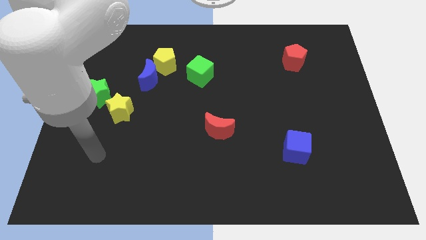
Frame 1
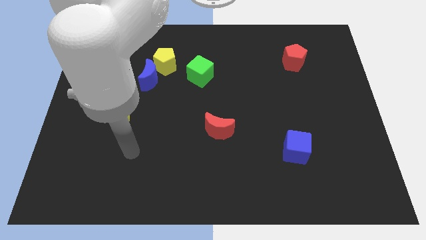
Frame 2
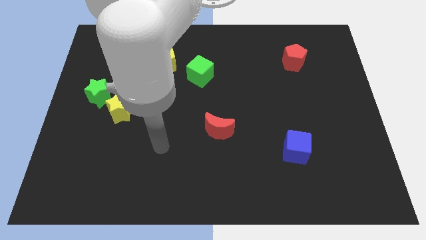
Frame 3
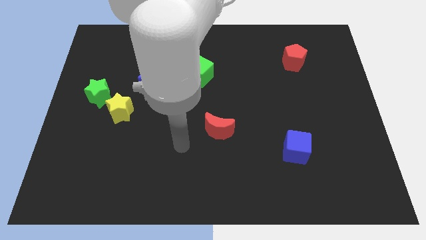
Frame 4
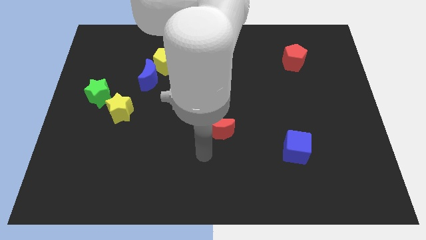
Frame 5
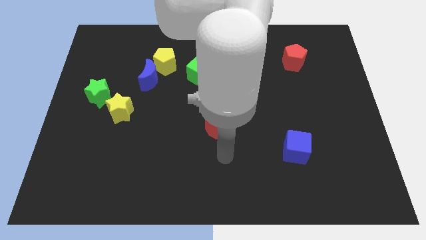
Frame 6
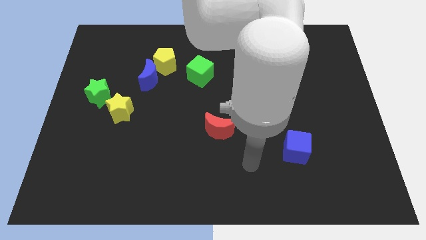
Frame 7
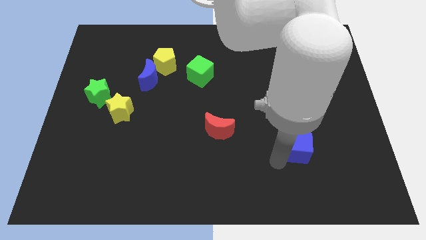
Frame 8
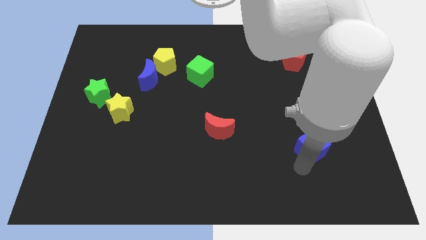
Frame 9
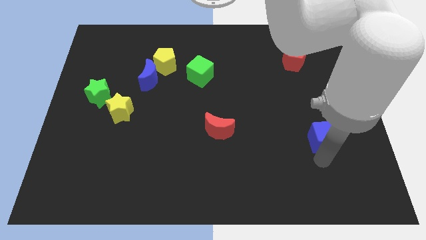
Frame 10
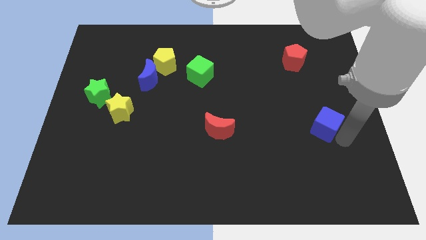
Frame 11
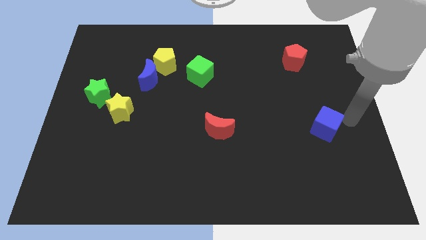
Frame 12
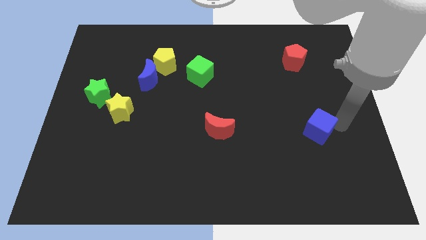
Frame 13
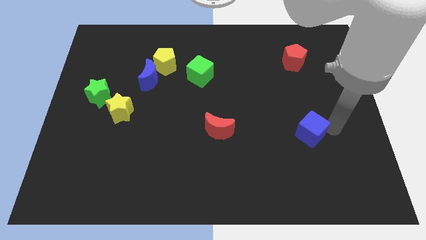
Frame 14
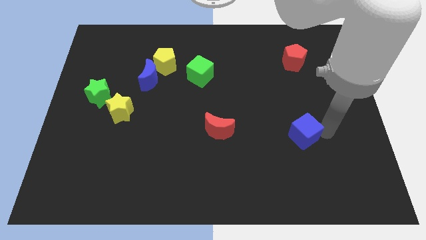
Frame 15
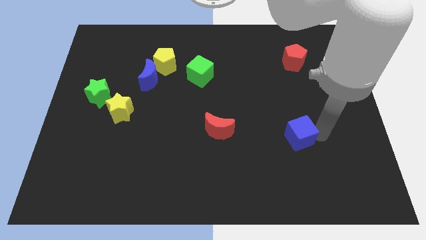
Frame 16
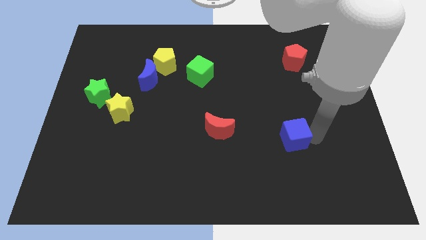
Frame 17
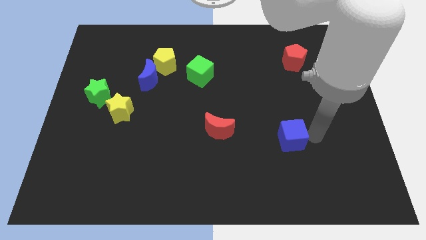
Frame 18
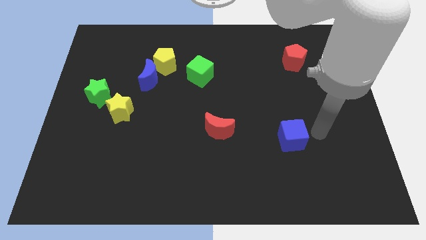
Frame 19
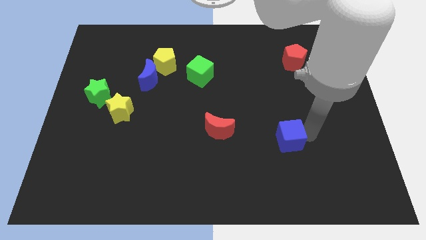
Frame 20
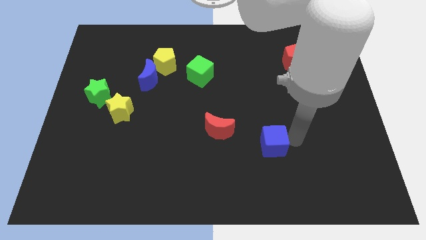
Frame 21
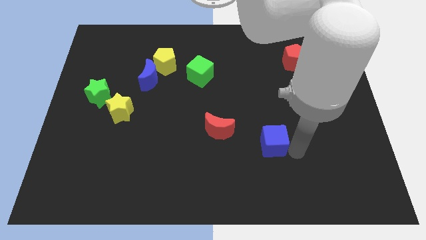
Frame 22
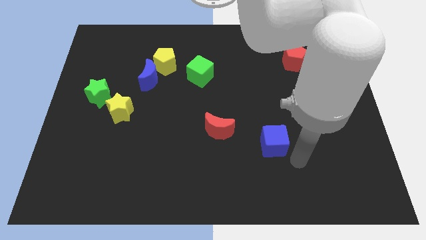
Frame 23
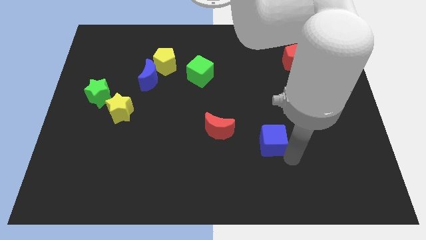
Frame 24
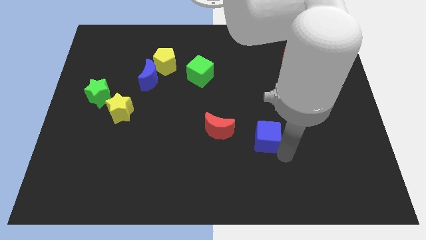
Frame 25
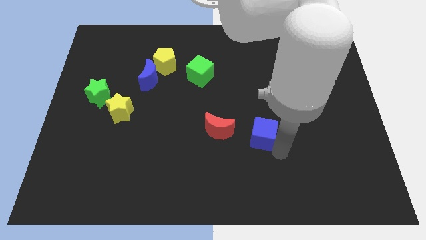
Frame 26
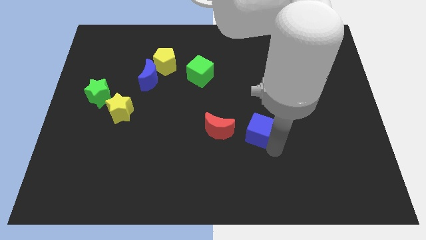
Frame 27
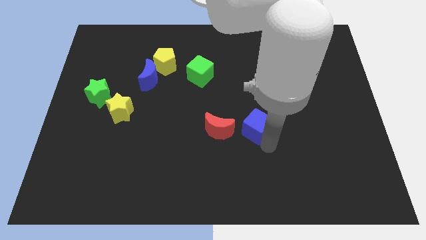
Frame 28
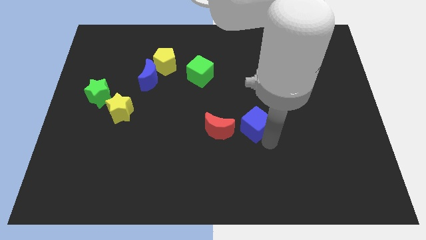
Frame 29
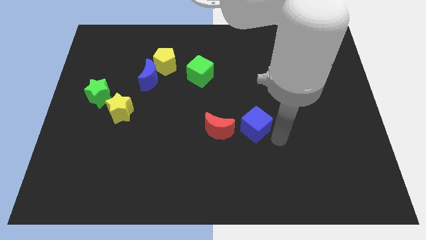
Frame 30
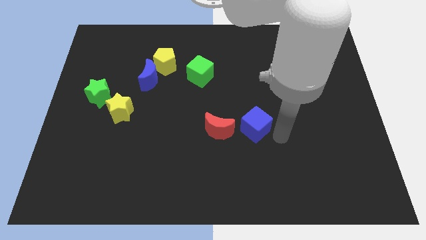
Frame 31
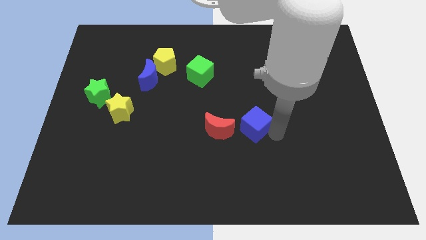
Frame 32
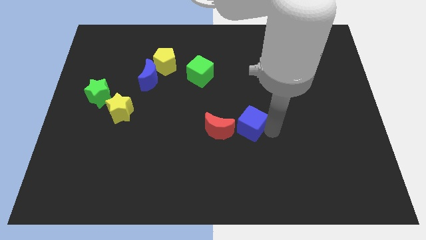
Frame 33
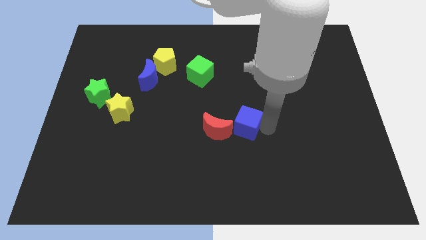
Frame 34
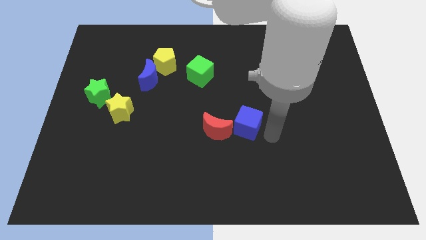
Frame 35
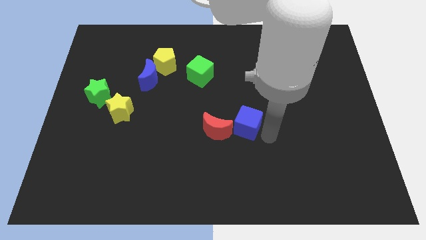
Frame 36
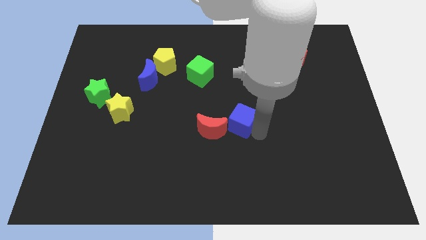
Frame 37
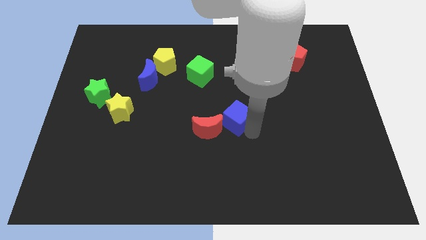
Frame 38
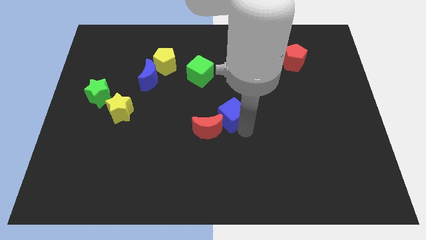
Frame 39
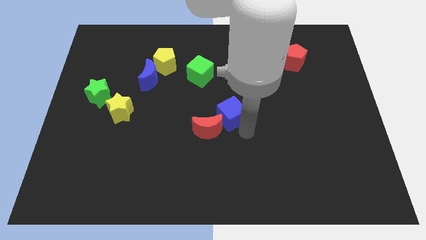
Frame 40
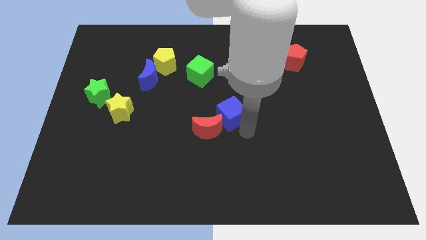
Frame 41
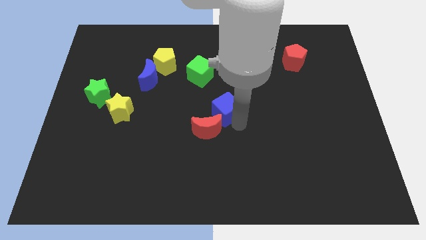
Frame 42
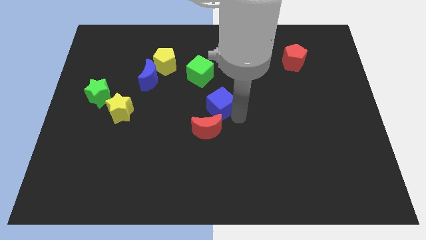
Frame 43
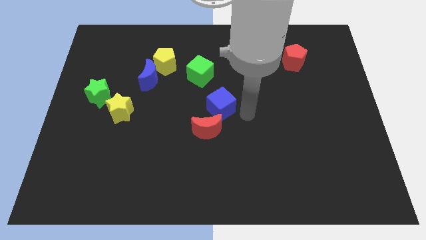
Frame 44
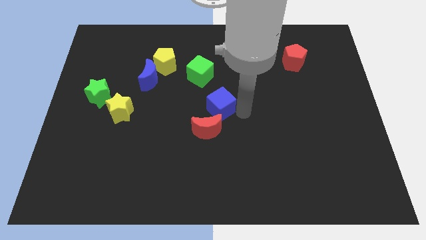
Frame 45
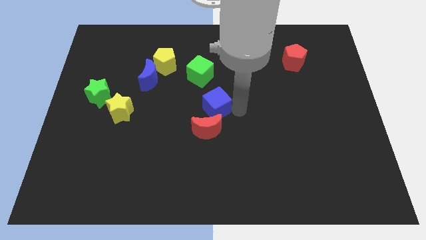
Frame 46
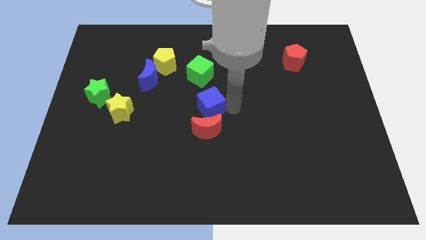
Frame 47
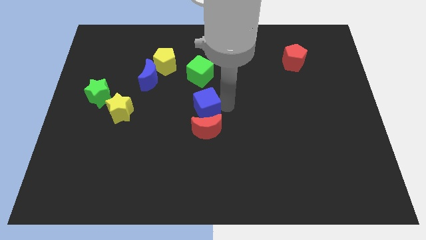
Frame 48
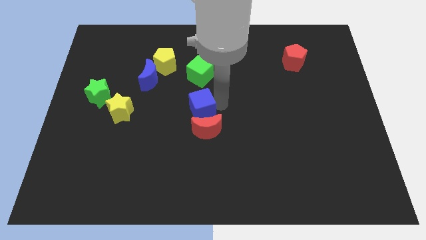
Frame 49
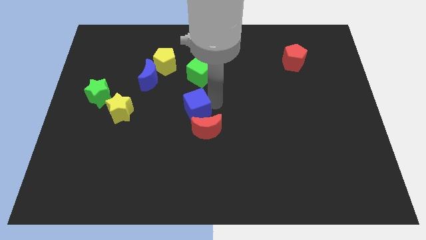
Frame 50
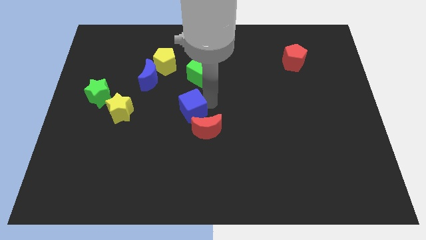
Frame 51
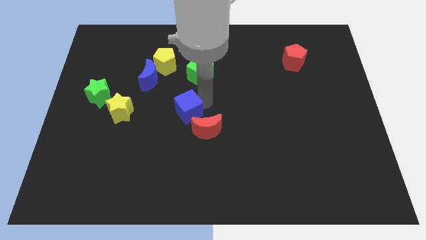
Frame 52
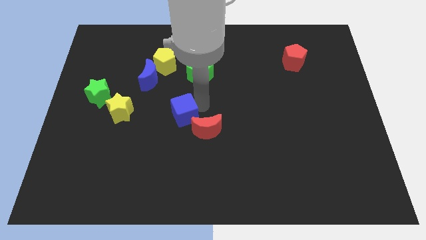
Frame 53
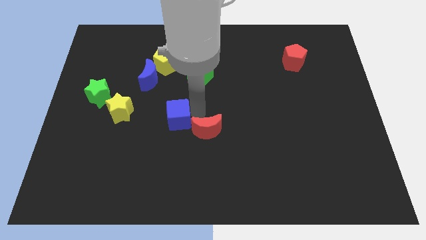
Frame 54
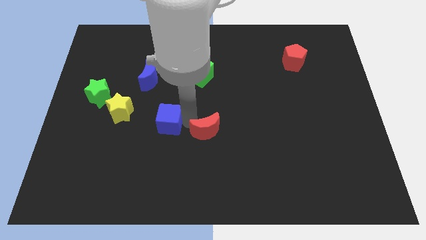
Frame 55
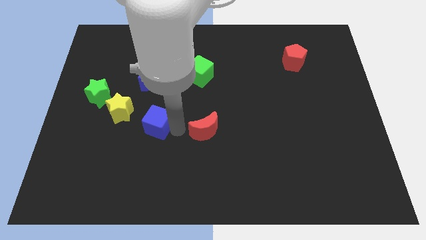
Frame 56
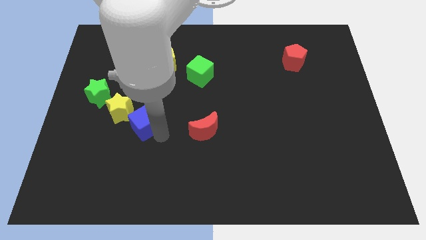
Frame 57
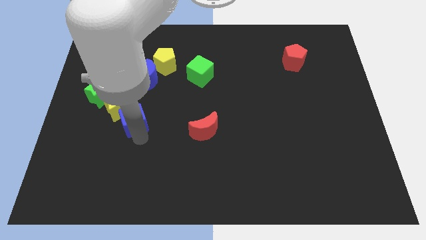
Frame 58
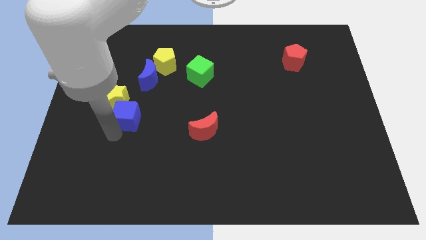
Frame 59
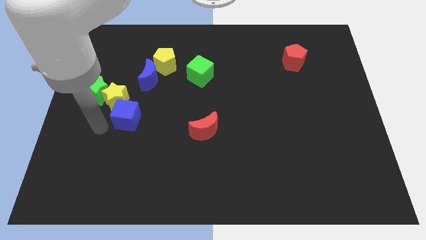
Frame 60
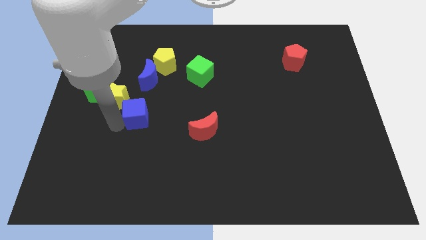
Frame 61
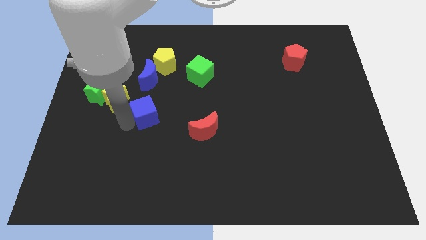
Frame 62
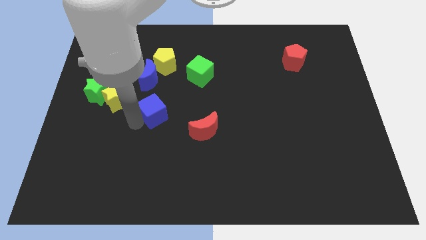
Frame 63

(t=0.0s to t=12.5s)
put the blue cube below the yellow pentagon

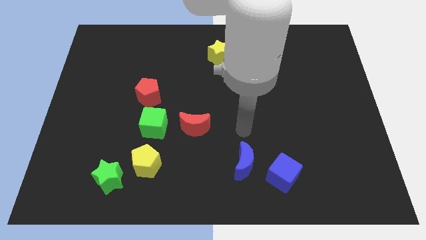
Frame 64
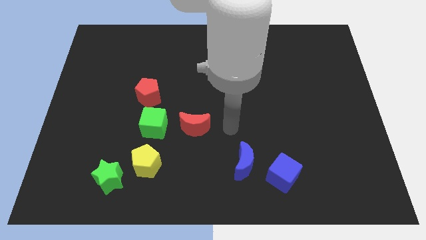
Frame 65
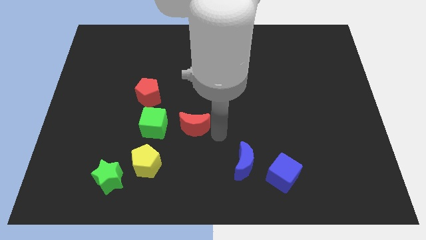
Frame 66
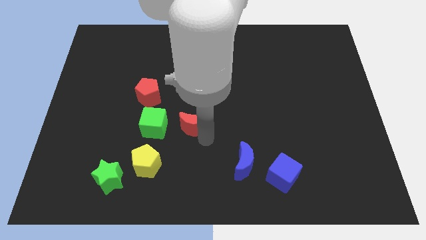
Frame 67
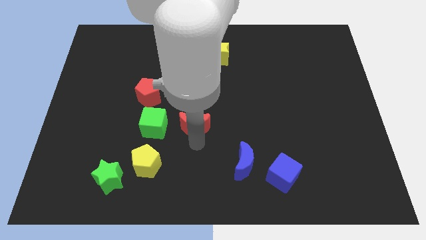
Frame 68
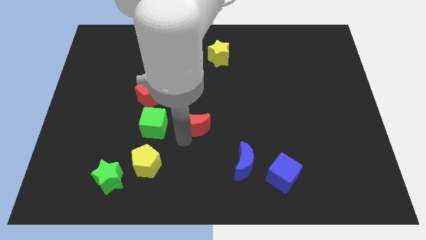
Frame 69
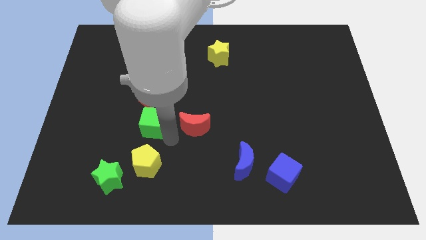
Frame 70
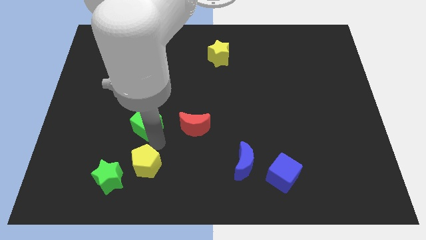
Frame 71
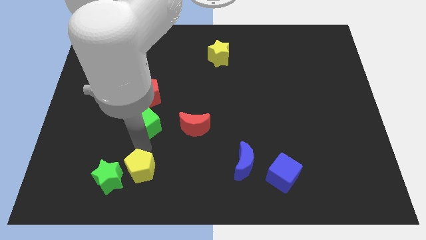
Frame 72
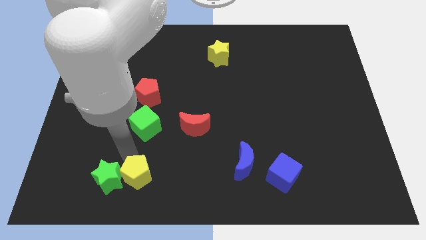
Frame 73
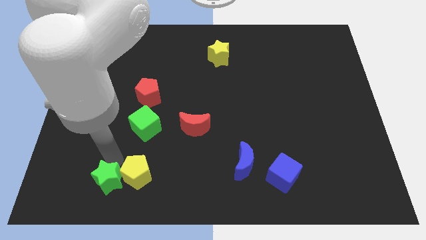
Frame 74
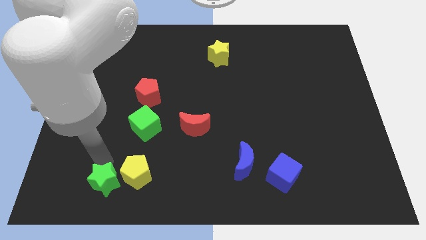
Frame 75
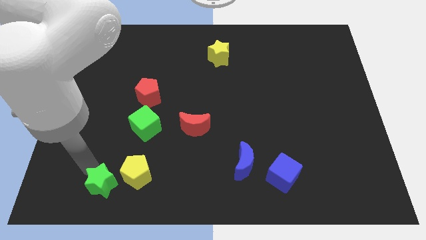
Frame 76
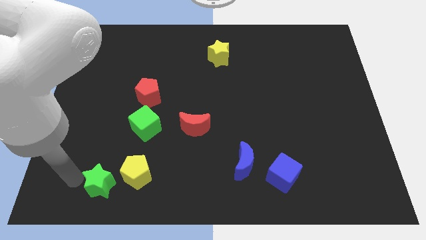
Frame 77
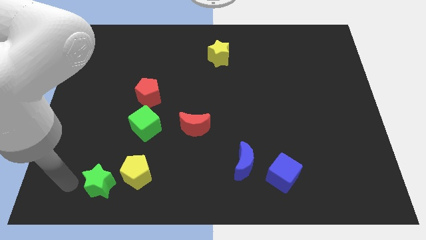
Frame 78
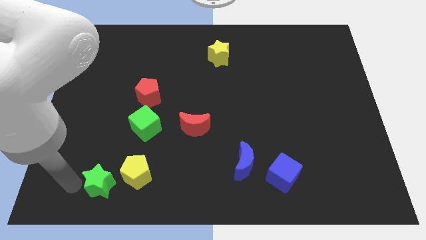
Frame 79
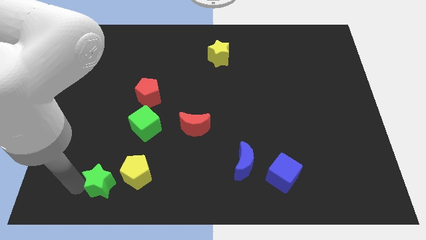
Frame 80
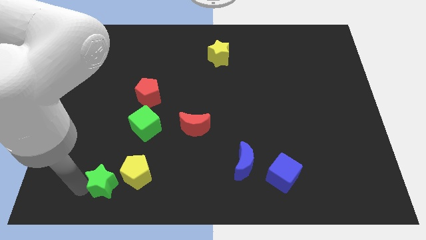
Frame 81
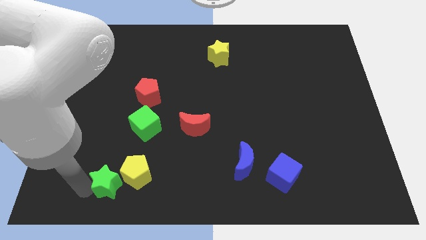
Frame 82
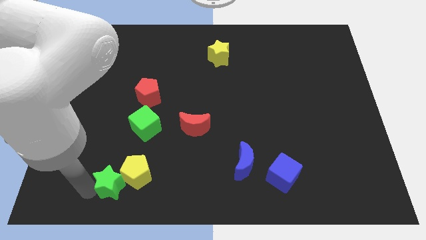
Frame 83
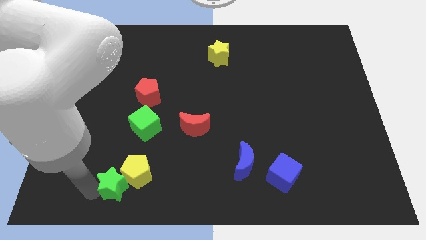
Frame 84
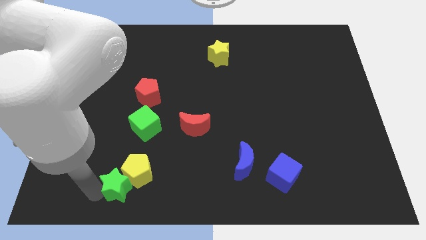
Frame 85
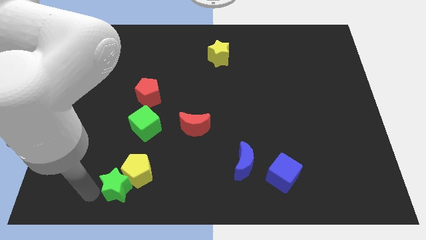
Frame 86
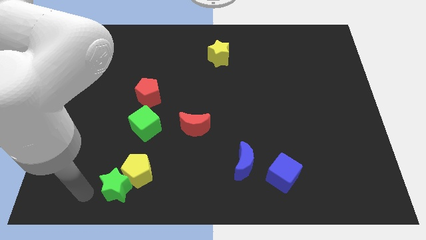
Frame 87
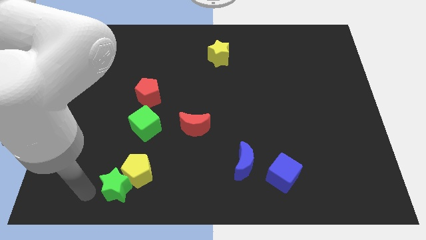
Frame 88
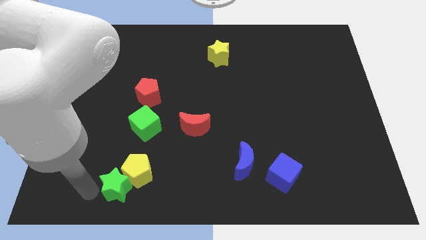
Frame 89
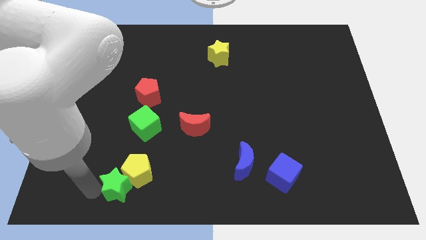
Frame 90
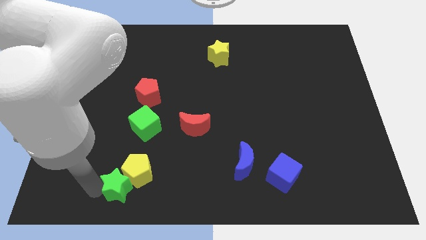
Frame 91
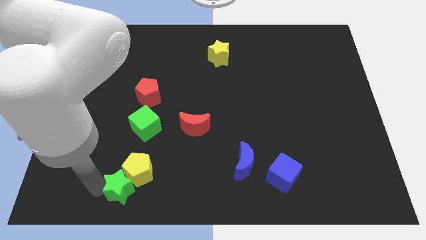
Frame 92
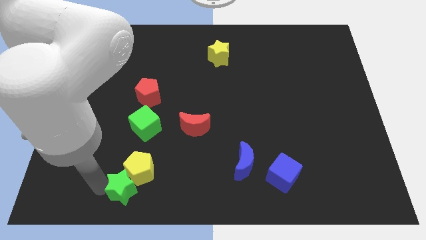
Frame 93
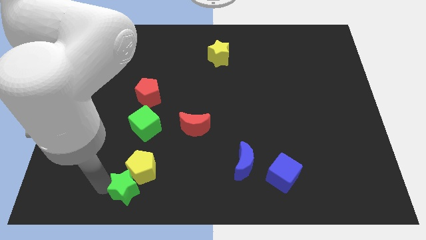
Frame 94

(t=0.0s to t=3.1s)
slide the green star to the bottom of the green cube
